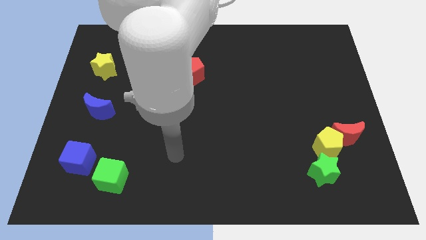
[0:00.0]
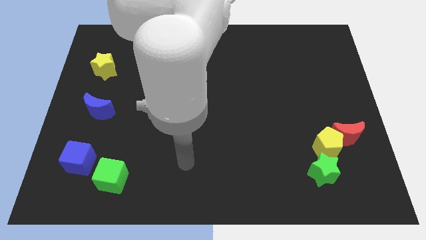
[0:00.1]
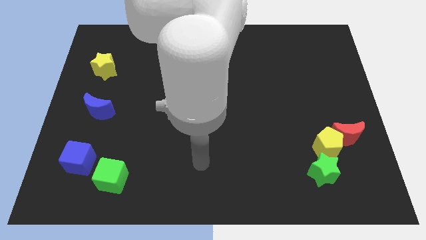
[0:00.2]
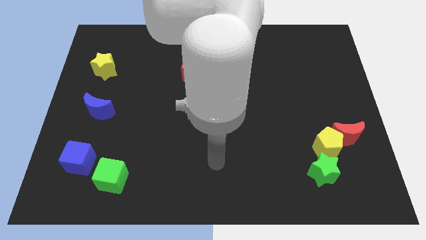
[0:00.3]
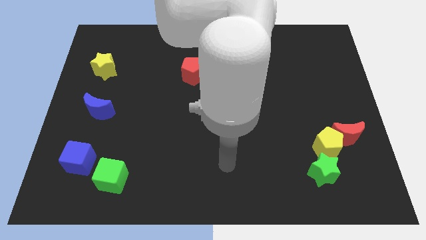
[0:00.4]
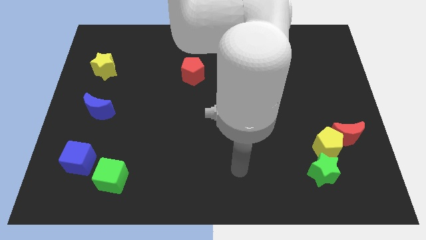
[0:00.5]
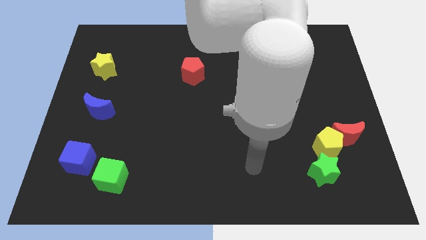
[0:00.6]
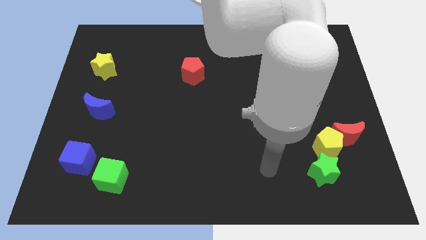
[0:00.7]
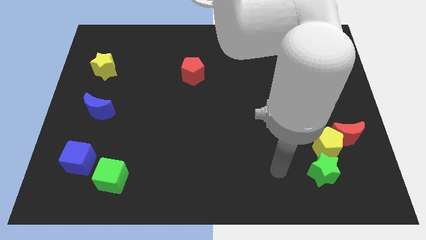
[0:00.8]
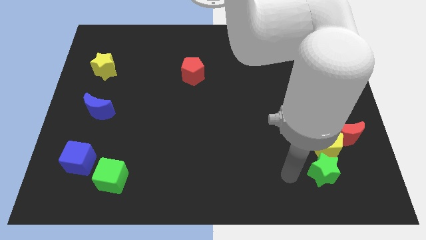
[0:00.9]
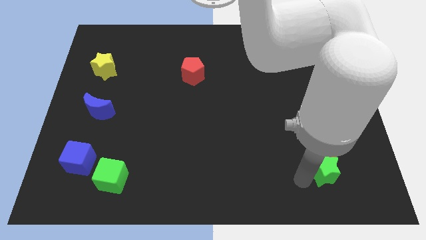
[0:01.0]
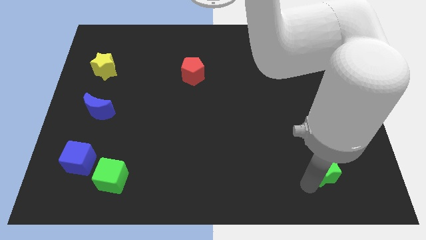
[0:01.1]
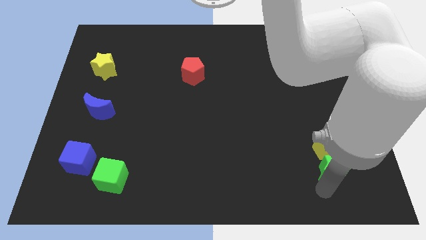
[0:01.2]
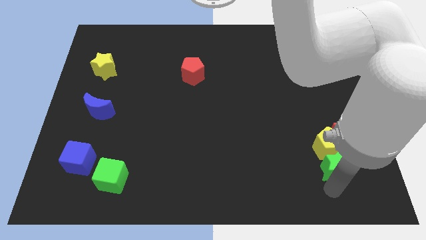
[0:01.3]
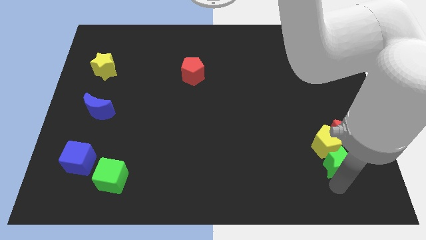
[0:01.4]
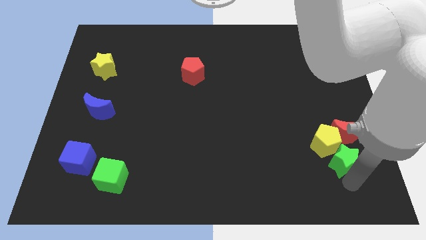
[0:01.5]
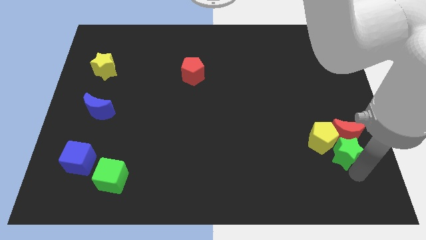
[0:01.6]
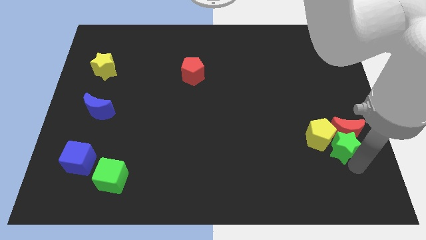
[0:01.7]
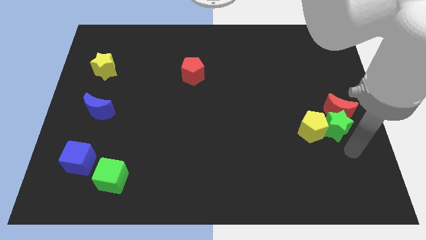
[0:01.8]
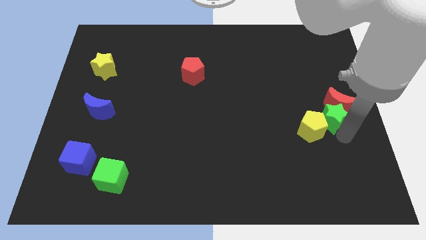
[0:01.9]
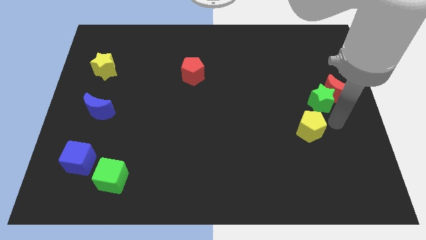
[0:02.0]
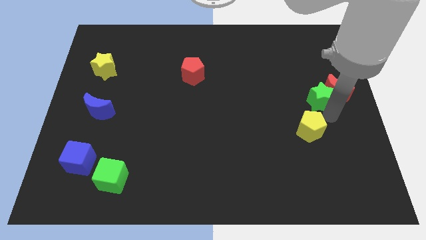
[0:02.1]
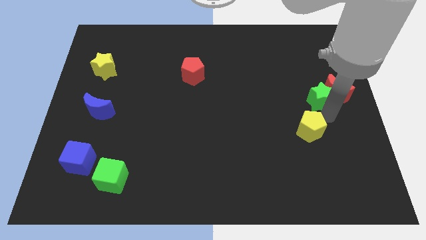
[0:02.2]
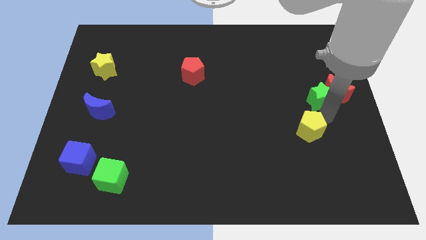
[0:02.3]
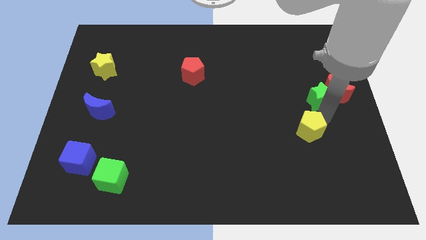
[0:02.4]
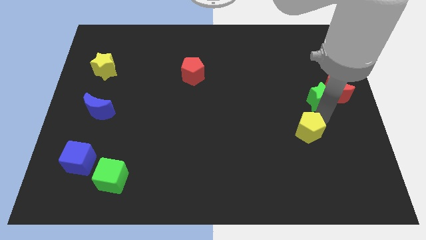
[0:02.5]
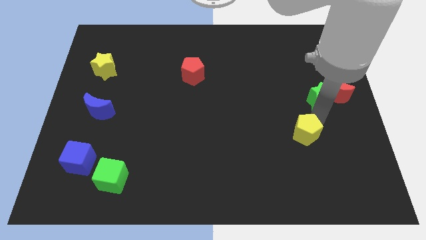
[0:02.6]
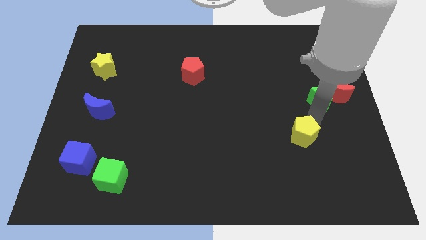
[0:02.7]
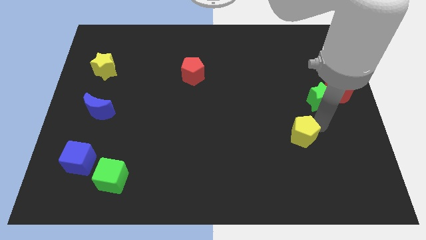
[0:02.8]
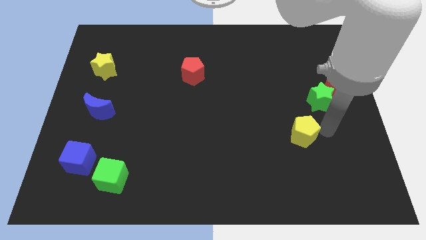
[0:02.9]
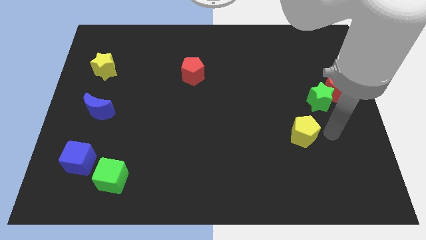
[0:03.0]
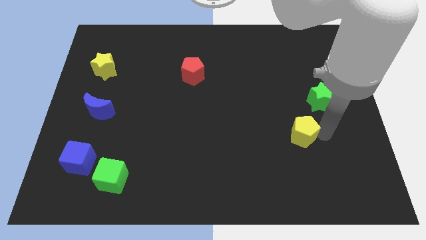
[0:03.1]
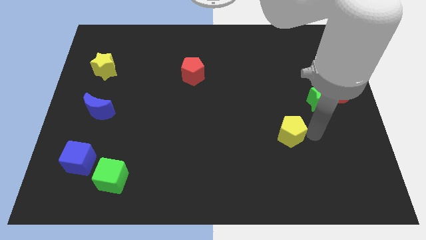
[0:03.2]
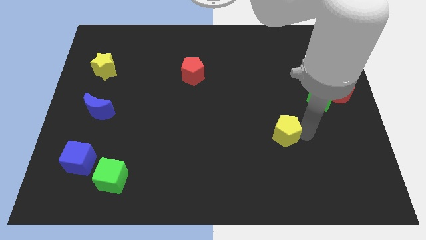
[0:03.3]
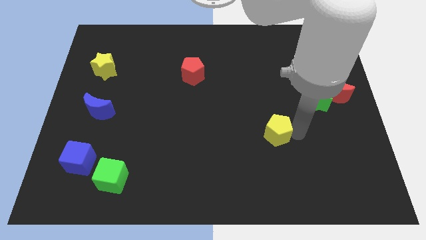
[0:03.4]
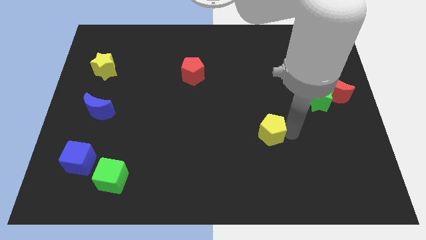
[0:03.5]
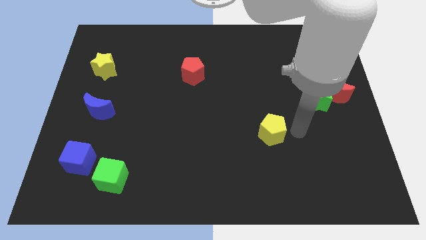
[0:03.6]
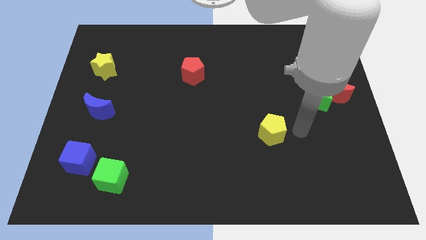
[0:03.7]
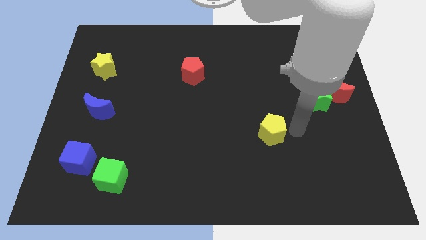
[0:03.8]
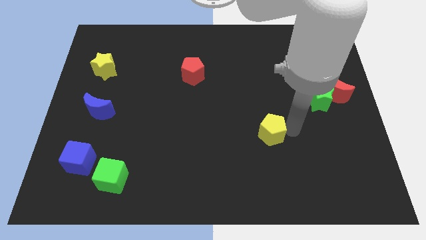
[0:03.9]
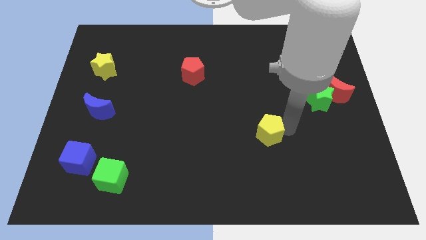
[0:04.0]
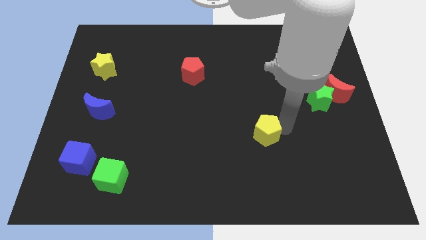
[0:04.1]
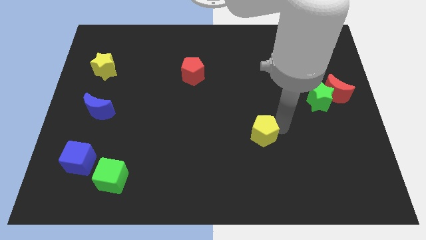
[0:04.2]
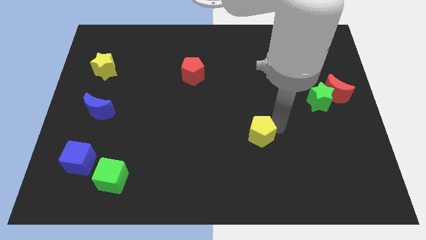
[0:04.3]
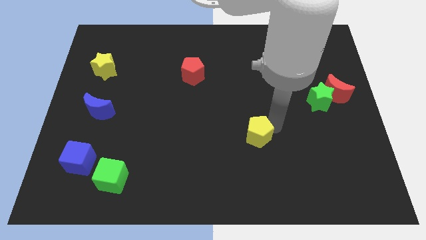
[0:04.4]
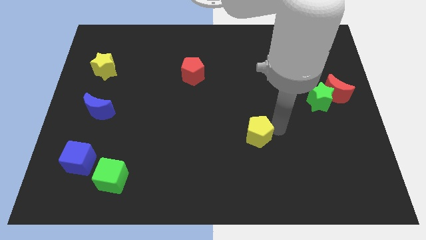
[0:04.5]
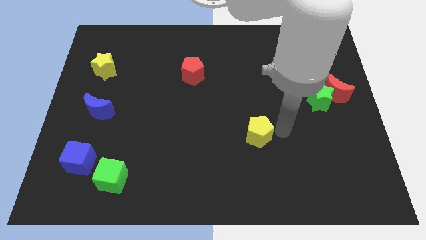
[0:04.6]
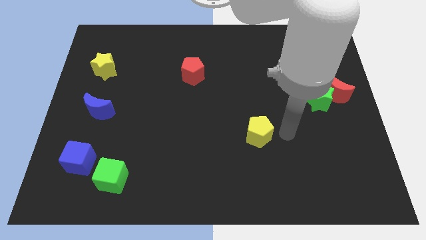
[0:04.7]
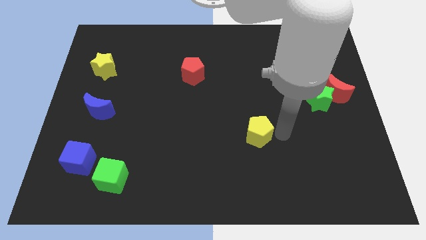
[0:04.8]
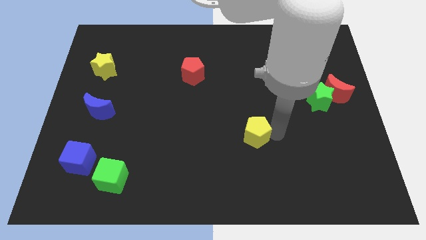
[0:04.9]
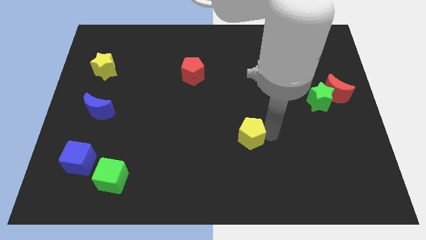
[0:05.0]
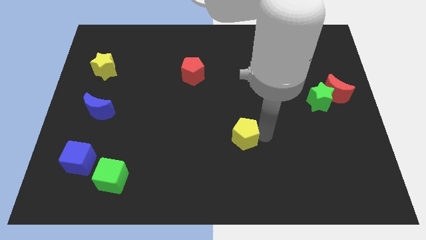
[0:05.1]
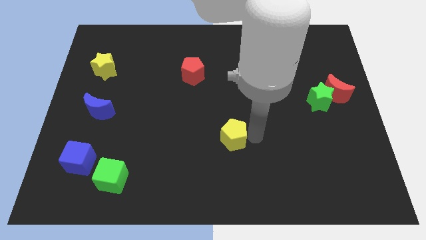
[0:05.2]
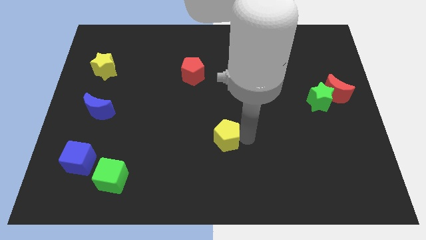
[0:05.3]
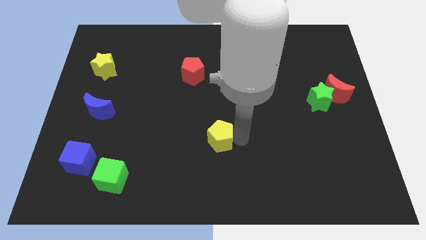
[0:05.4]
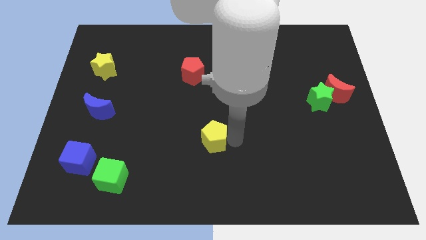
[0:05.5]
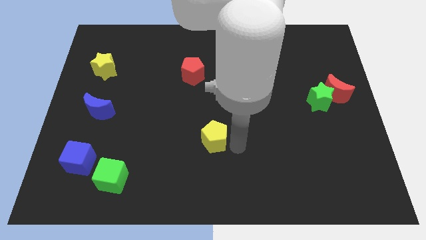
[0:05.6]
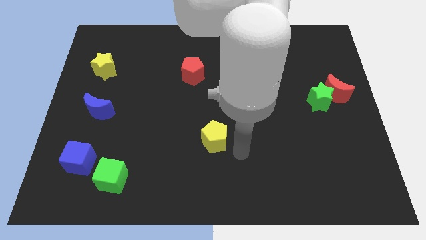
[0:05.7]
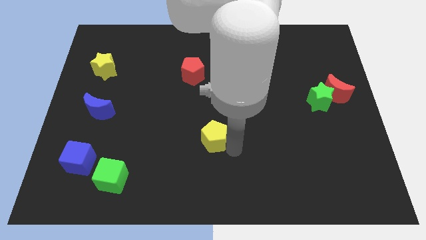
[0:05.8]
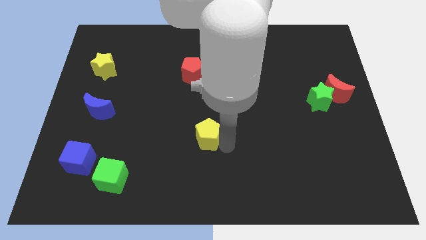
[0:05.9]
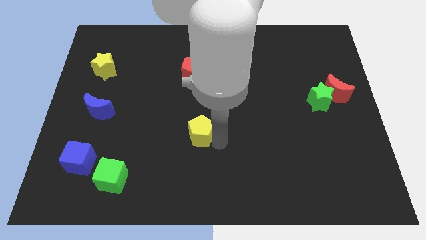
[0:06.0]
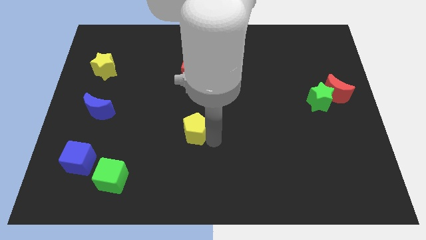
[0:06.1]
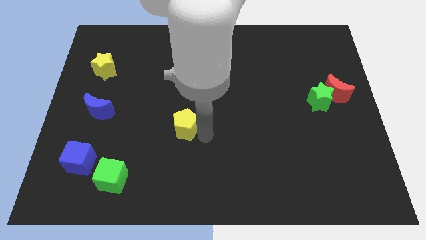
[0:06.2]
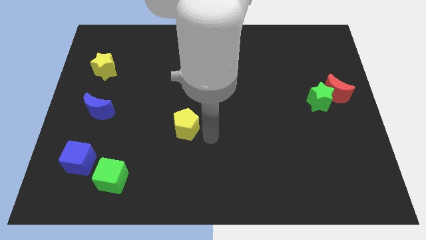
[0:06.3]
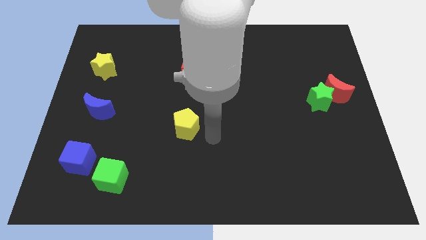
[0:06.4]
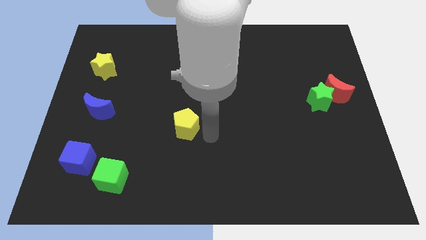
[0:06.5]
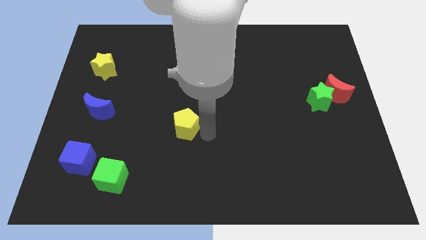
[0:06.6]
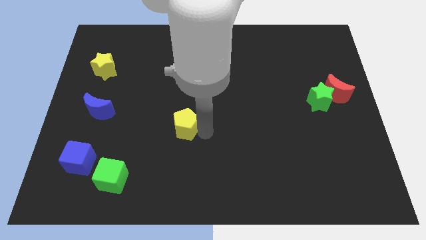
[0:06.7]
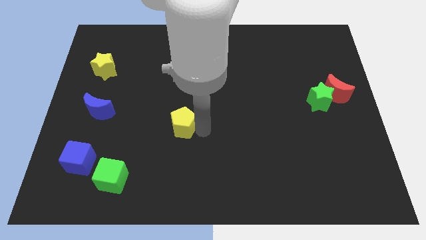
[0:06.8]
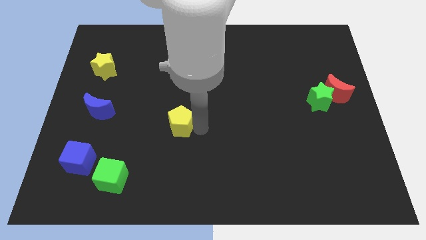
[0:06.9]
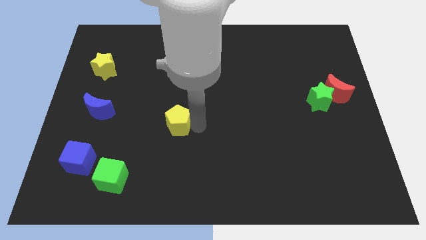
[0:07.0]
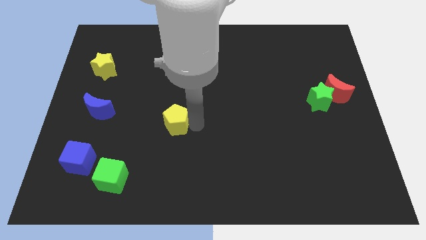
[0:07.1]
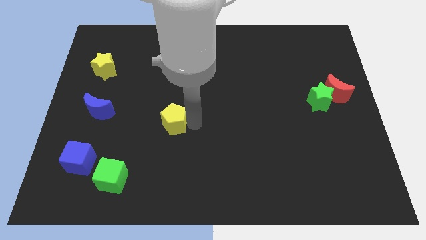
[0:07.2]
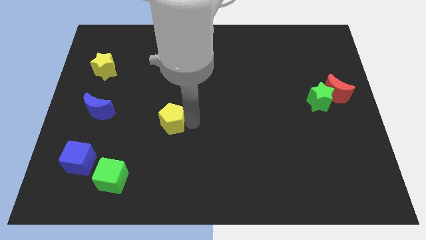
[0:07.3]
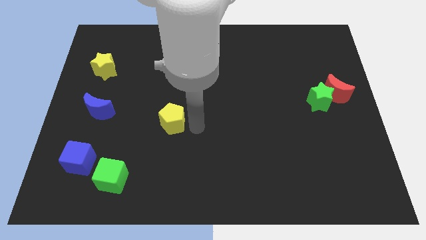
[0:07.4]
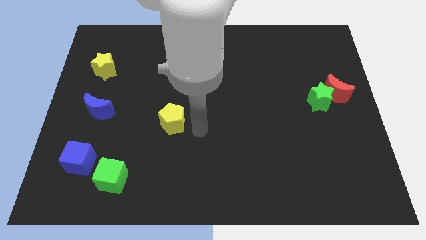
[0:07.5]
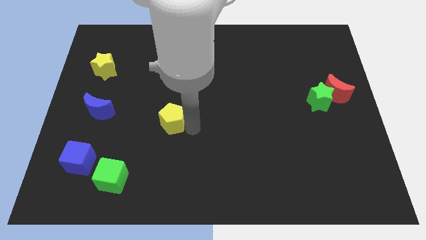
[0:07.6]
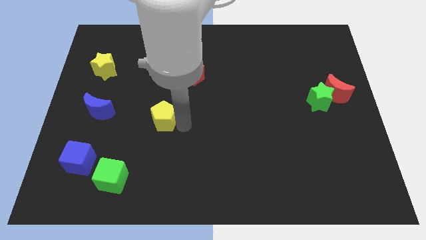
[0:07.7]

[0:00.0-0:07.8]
push the yellow pentagon just right of the blue moon
